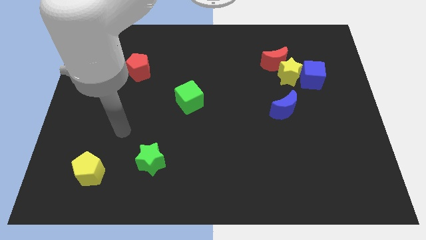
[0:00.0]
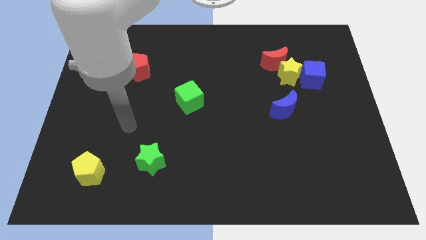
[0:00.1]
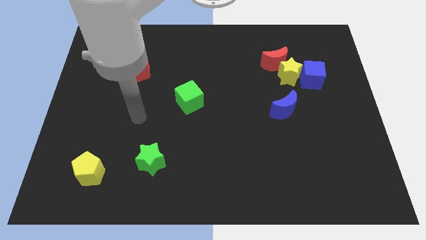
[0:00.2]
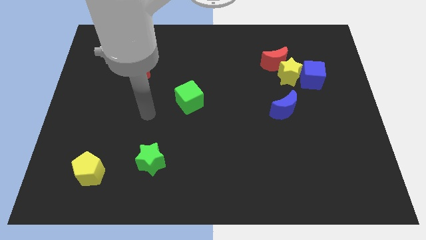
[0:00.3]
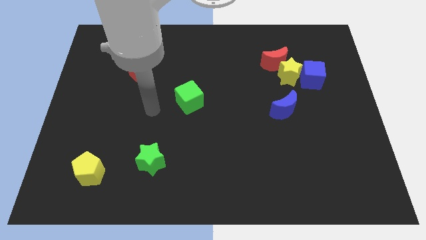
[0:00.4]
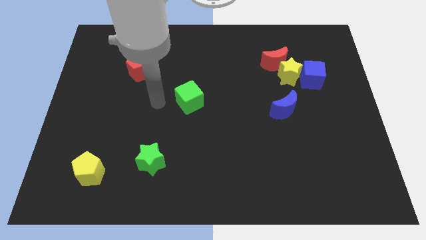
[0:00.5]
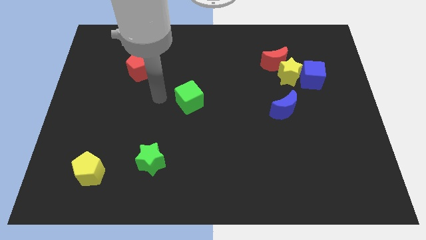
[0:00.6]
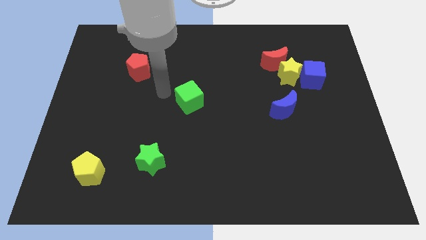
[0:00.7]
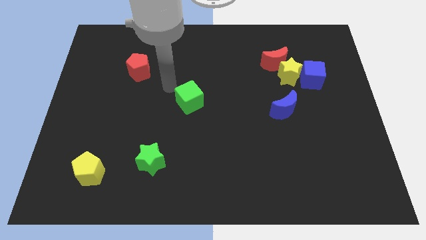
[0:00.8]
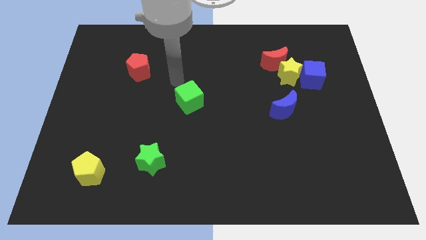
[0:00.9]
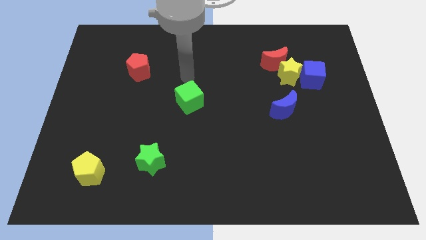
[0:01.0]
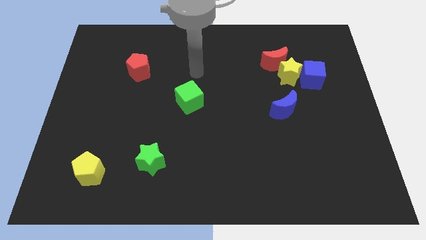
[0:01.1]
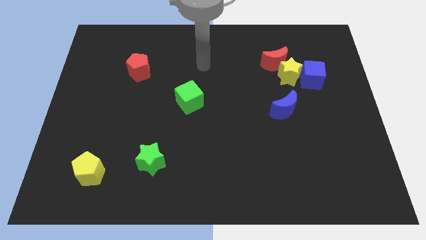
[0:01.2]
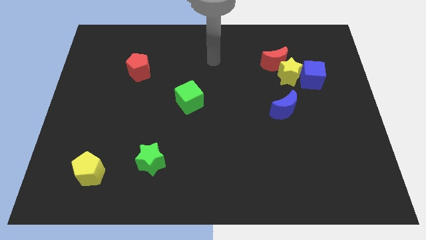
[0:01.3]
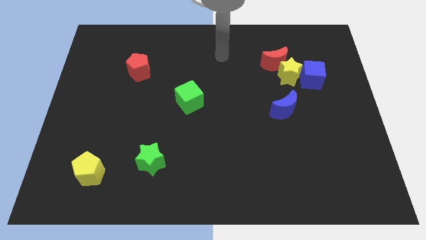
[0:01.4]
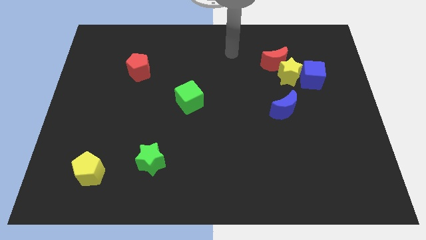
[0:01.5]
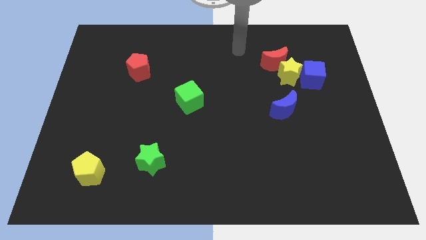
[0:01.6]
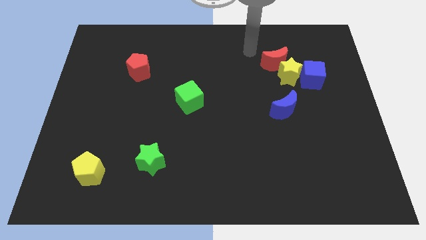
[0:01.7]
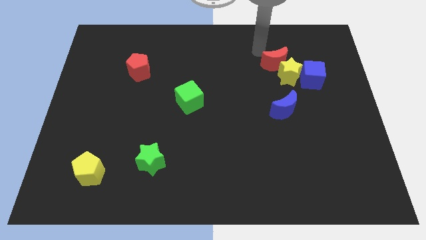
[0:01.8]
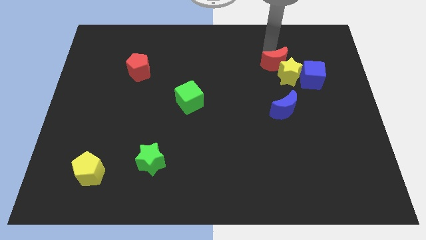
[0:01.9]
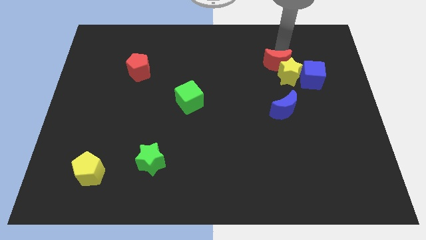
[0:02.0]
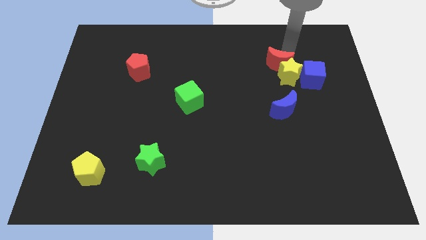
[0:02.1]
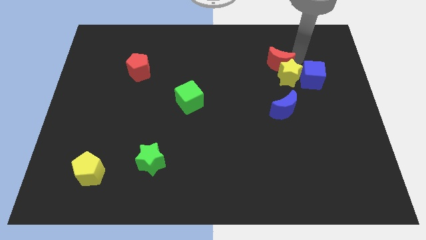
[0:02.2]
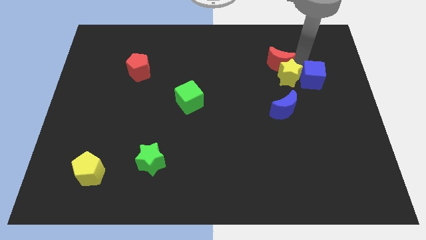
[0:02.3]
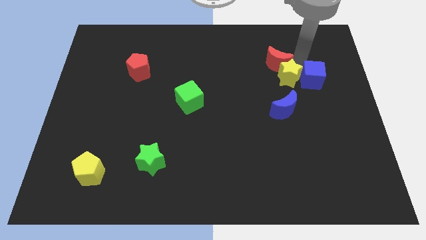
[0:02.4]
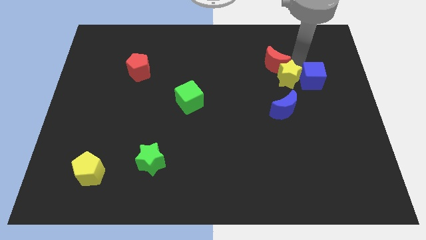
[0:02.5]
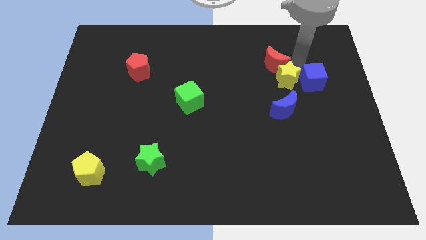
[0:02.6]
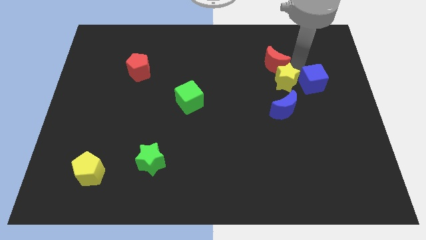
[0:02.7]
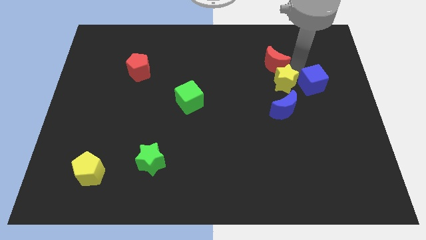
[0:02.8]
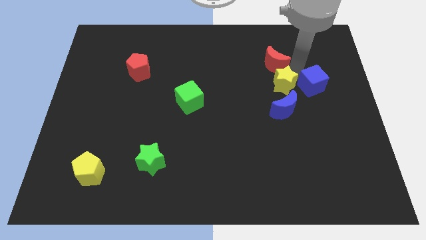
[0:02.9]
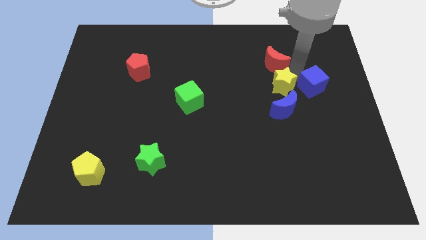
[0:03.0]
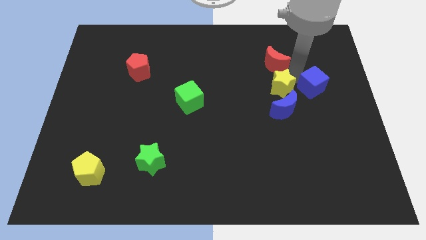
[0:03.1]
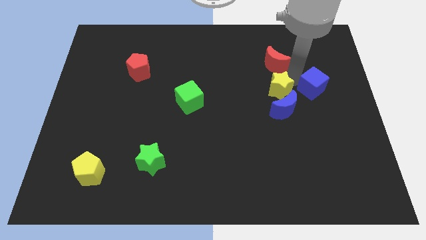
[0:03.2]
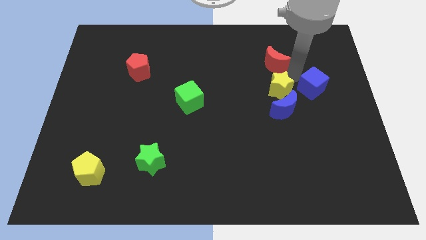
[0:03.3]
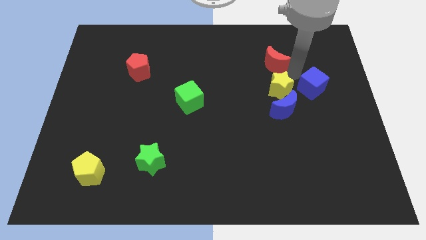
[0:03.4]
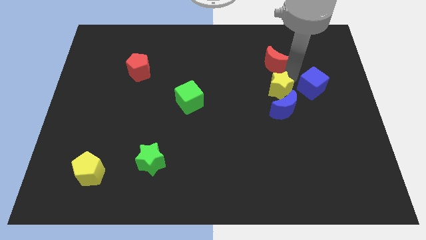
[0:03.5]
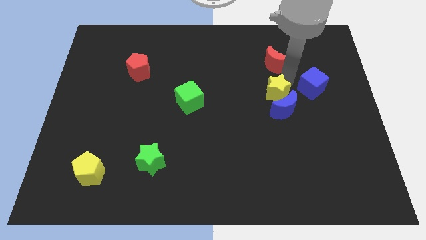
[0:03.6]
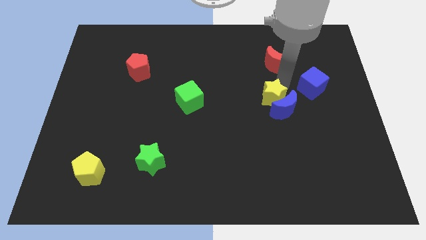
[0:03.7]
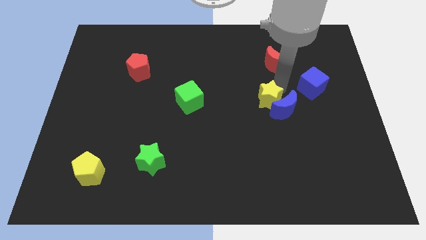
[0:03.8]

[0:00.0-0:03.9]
separate the yellow star from the red moon and blue cube

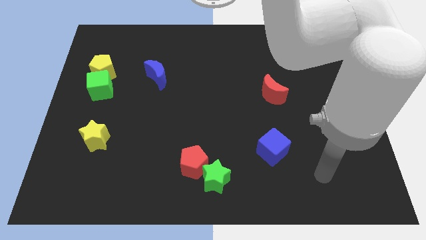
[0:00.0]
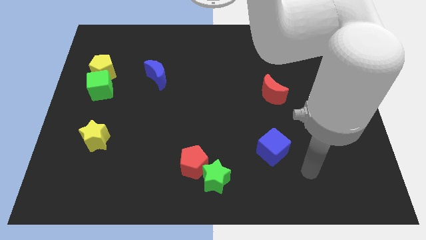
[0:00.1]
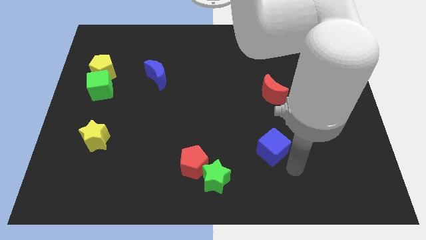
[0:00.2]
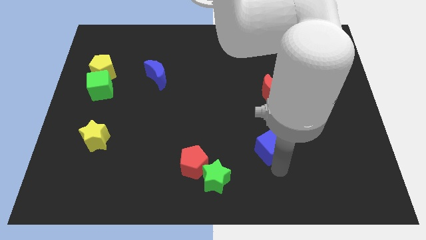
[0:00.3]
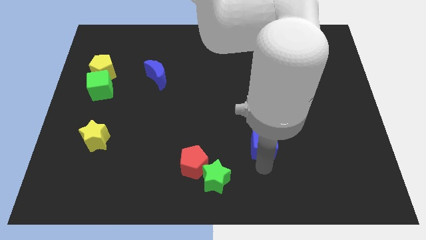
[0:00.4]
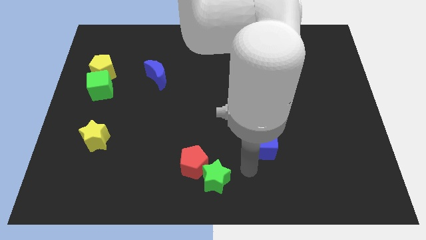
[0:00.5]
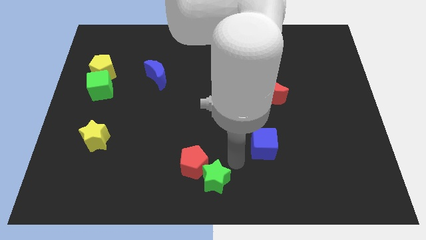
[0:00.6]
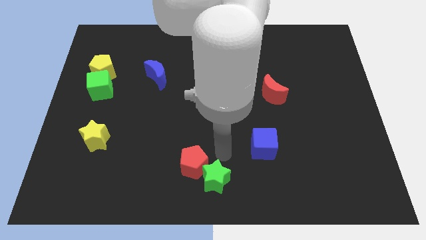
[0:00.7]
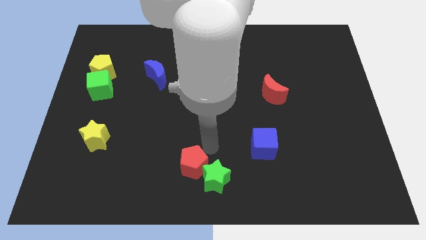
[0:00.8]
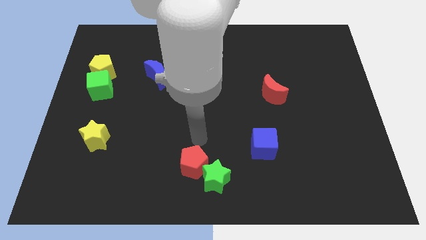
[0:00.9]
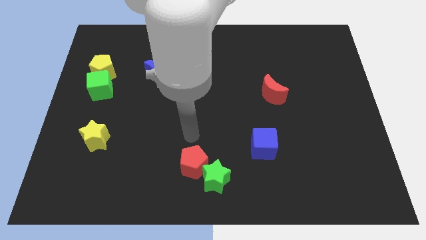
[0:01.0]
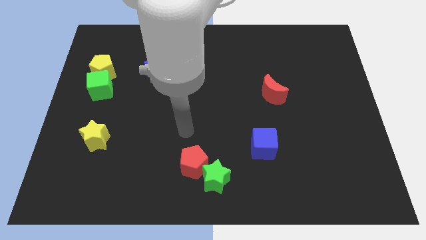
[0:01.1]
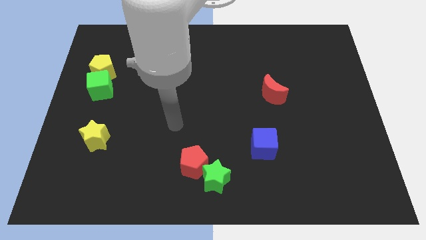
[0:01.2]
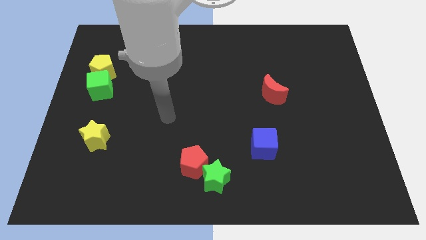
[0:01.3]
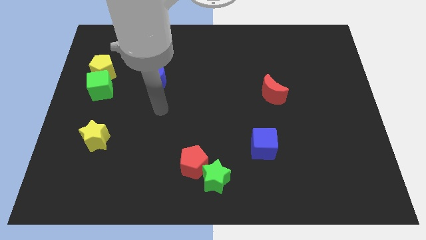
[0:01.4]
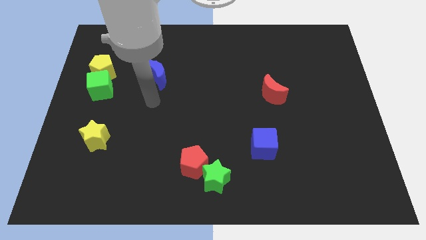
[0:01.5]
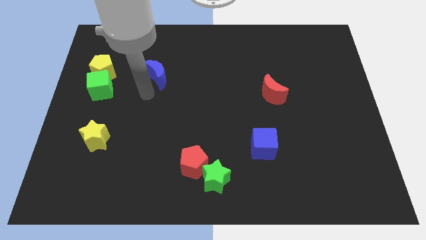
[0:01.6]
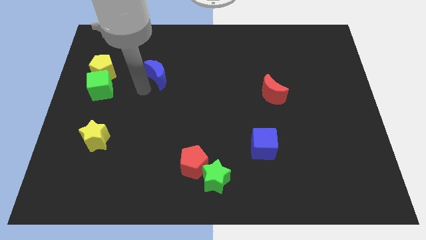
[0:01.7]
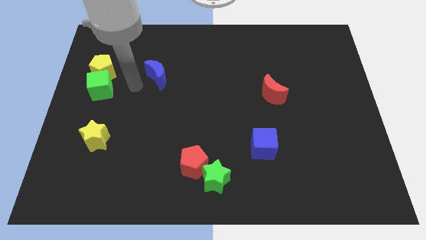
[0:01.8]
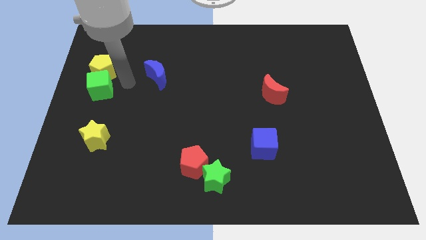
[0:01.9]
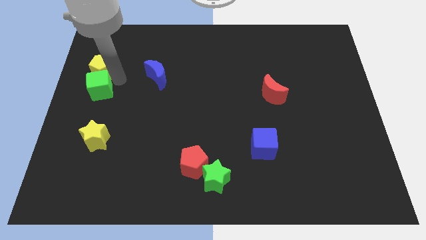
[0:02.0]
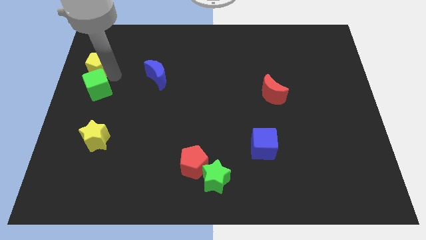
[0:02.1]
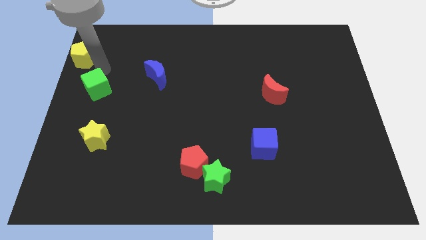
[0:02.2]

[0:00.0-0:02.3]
separate the green cube from the yellow pentagon

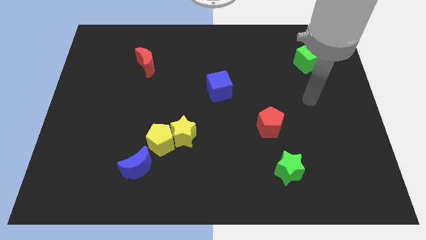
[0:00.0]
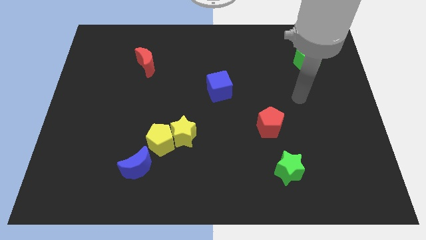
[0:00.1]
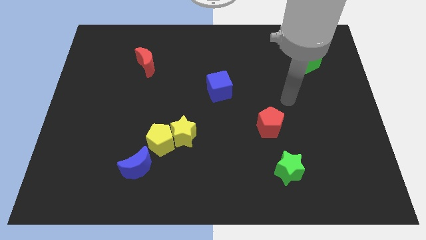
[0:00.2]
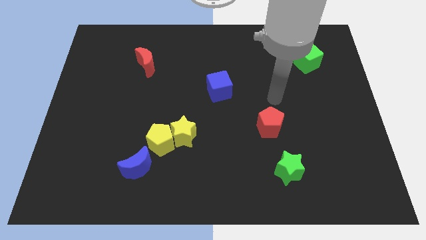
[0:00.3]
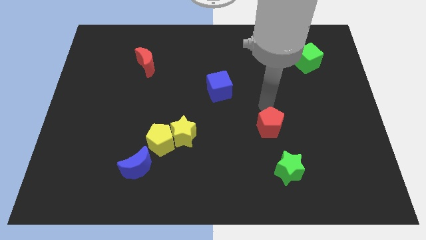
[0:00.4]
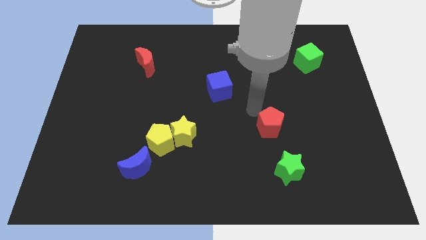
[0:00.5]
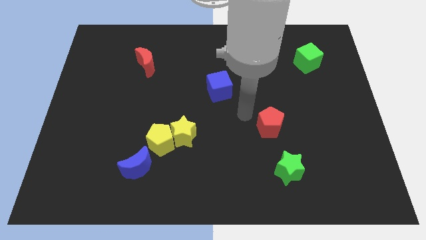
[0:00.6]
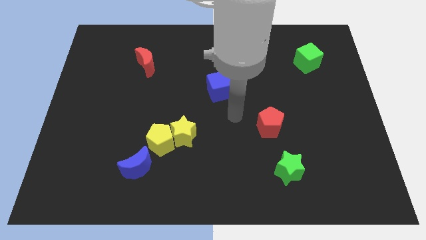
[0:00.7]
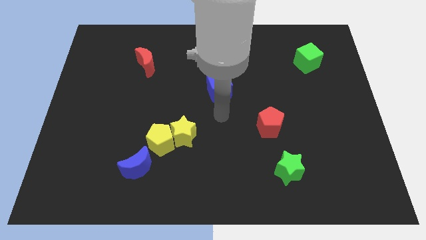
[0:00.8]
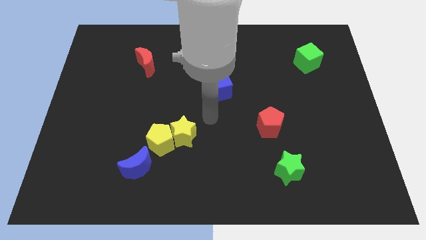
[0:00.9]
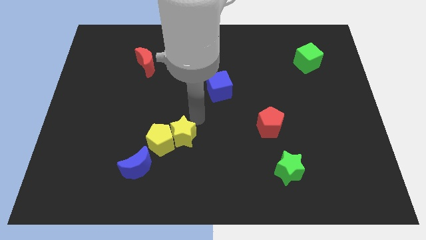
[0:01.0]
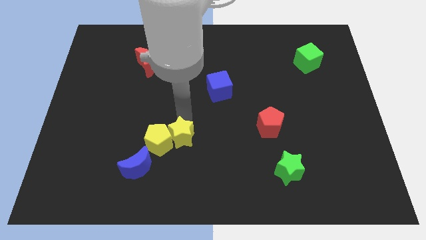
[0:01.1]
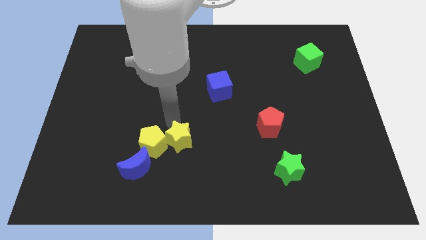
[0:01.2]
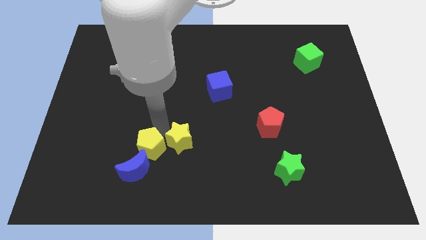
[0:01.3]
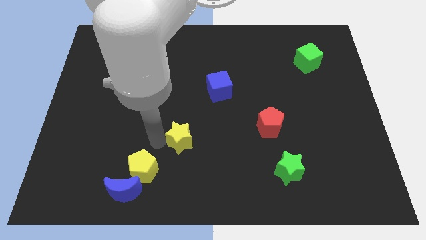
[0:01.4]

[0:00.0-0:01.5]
separate the yellow star from the yellow pentagon

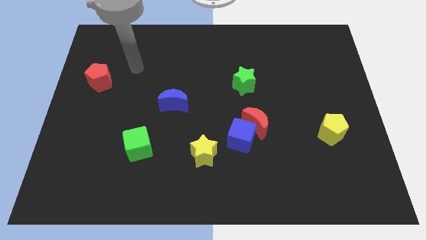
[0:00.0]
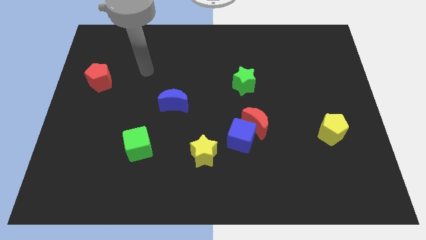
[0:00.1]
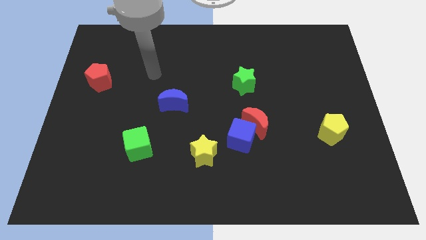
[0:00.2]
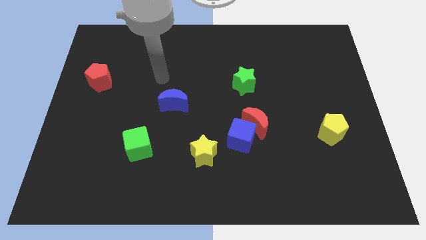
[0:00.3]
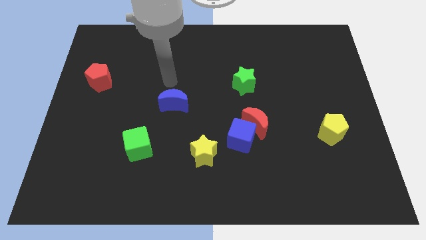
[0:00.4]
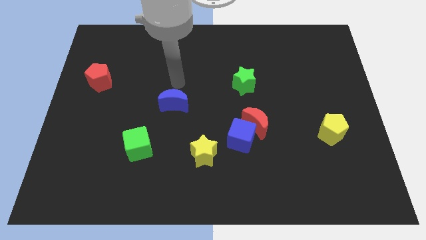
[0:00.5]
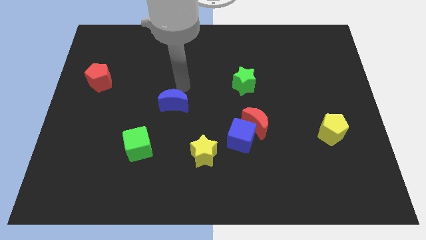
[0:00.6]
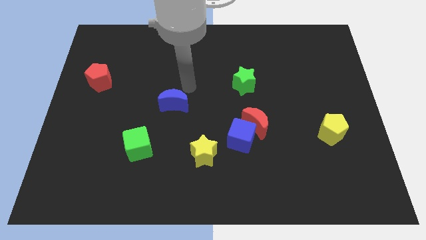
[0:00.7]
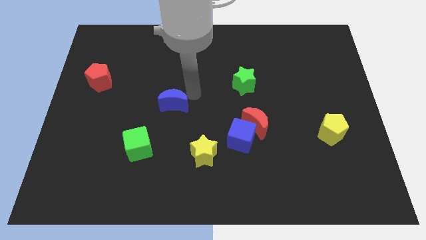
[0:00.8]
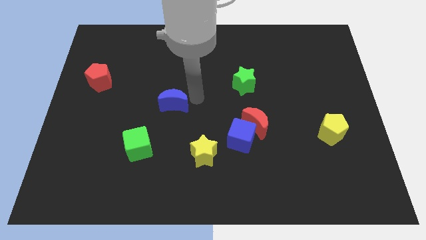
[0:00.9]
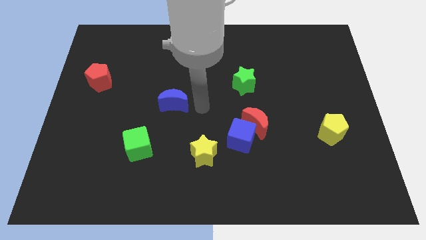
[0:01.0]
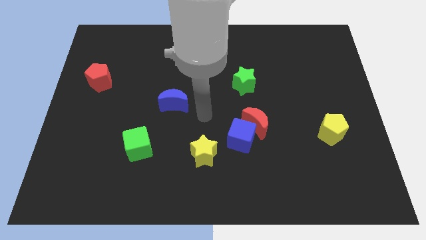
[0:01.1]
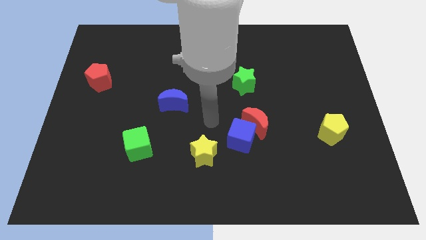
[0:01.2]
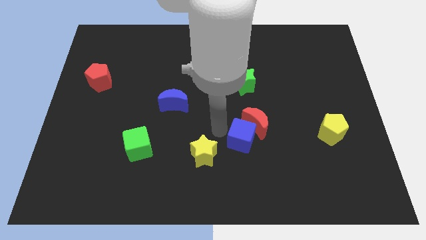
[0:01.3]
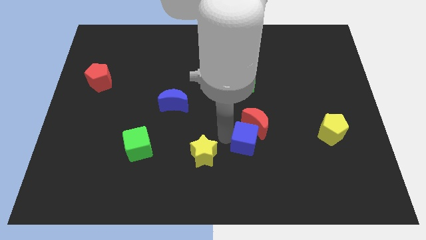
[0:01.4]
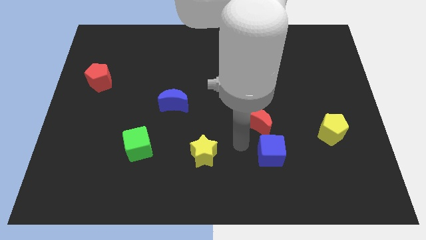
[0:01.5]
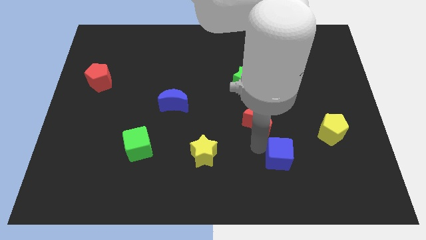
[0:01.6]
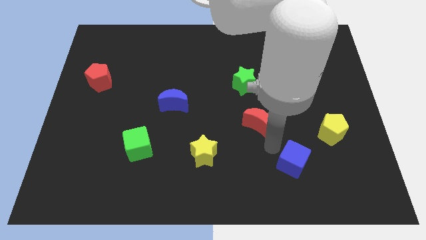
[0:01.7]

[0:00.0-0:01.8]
move the red moon away from the blue cube
